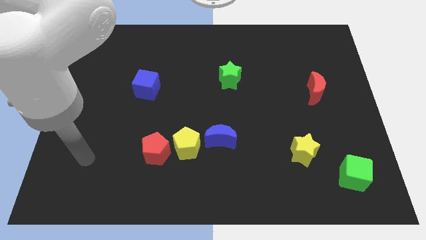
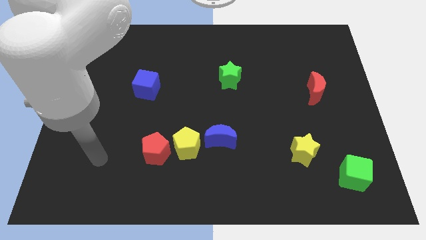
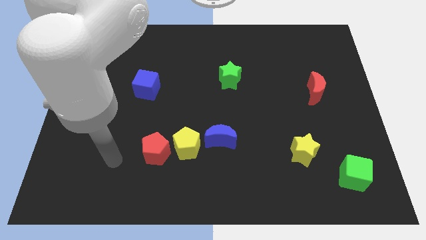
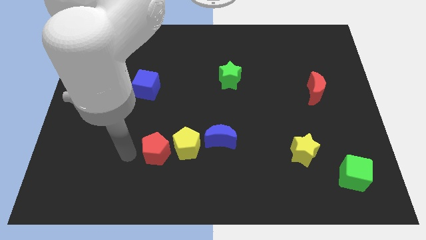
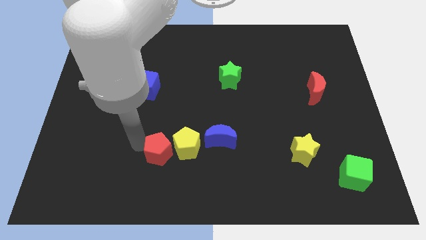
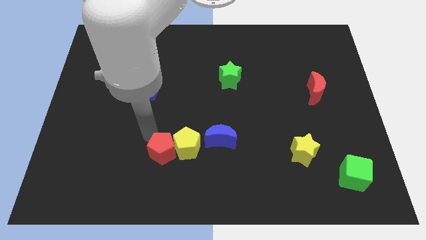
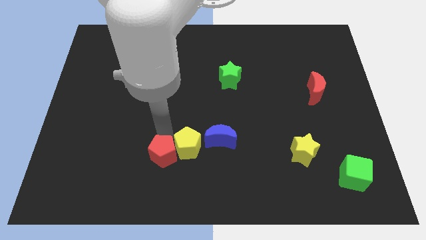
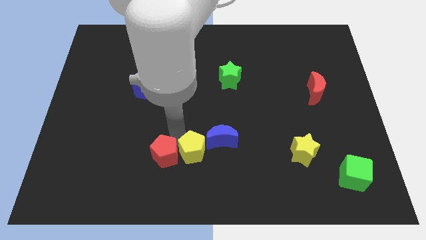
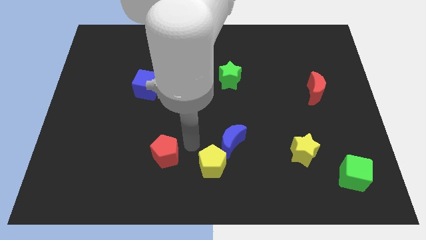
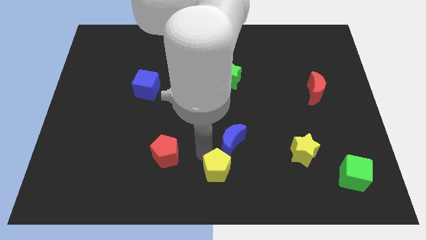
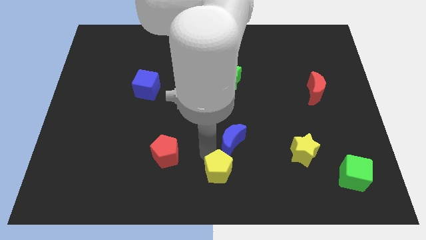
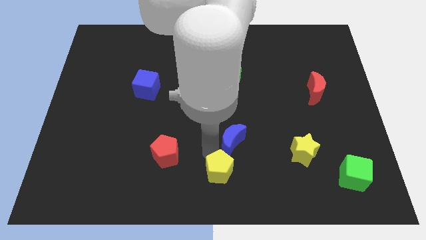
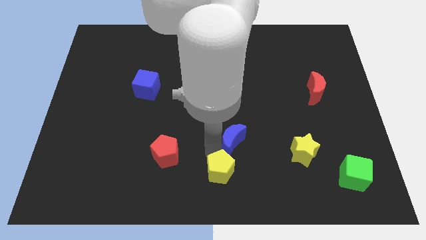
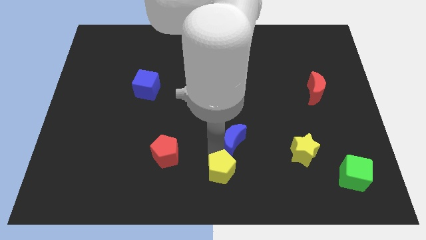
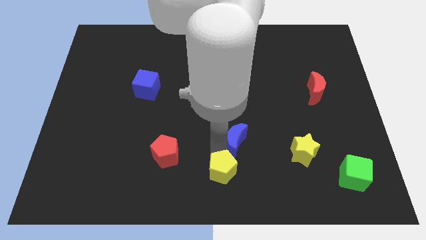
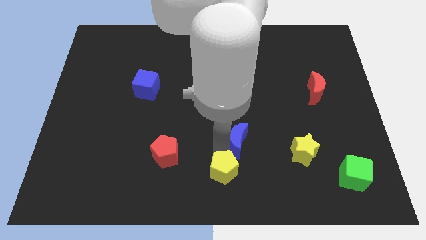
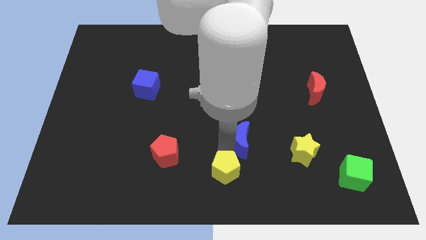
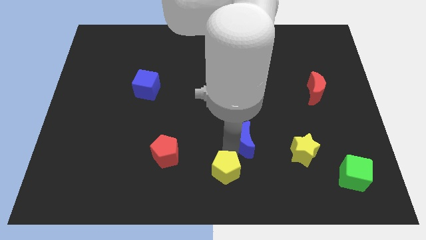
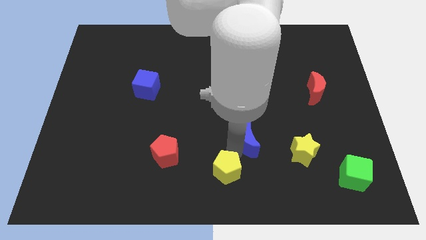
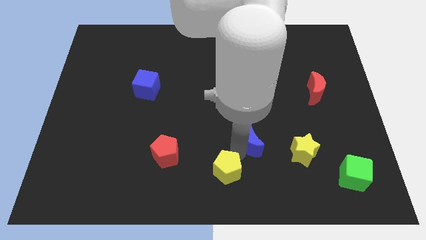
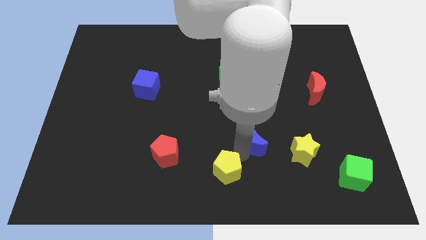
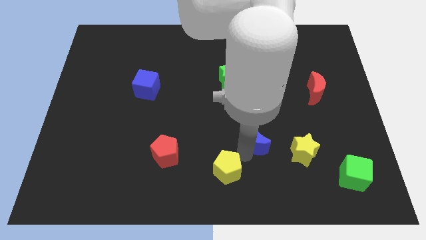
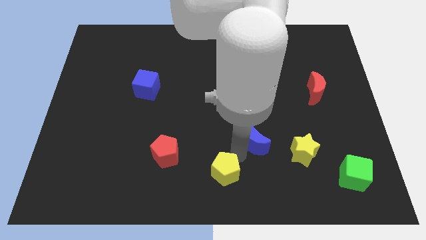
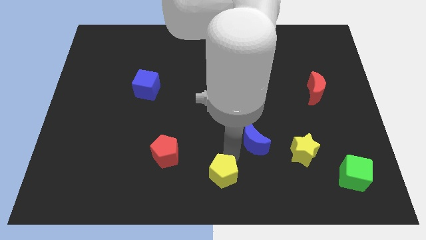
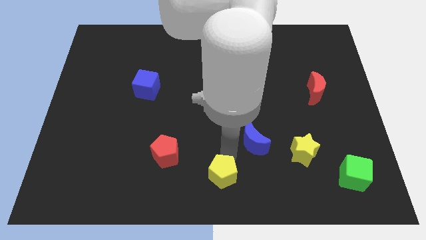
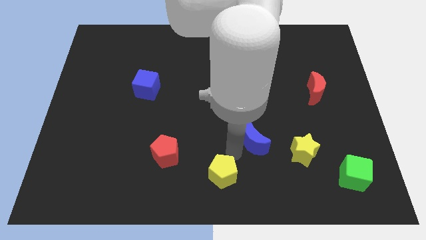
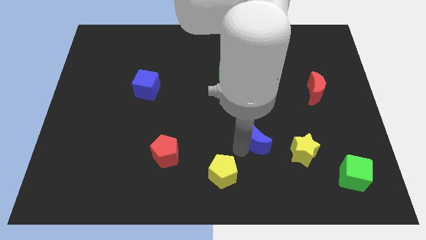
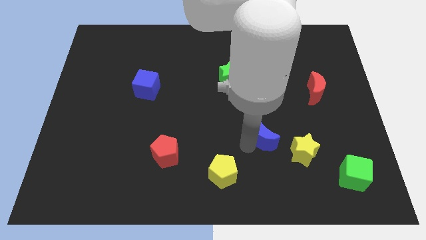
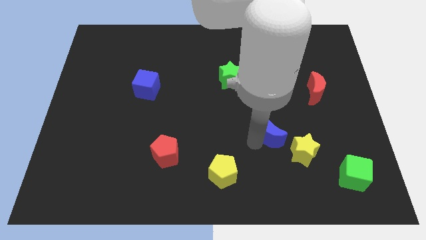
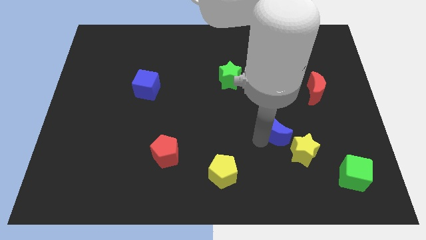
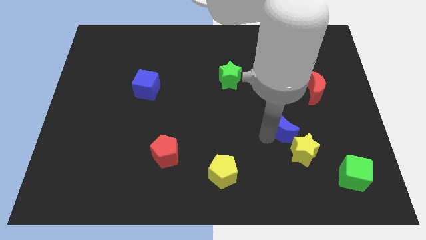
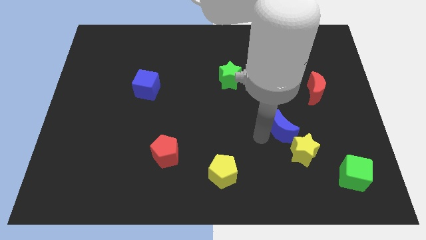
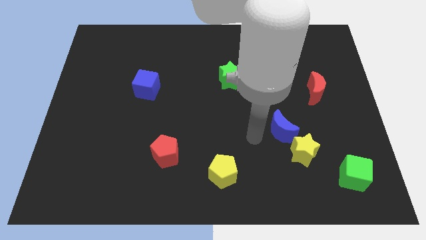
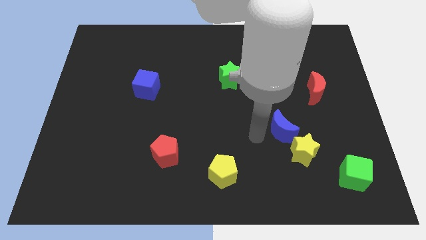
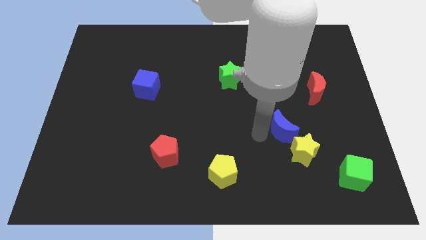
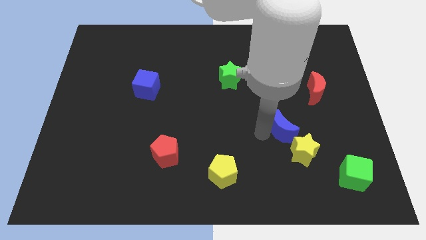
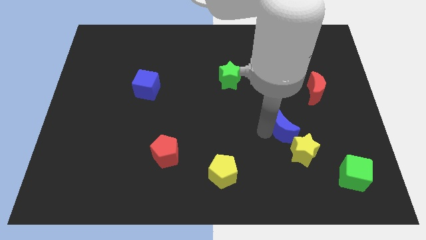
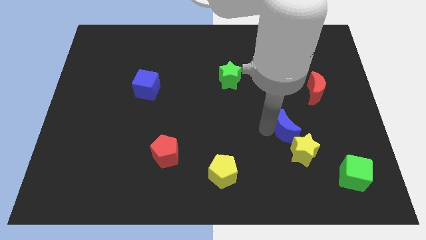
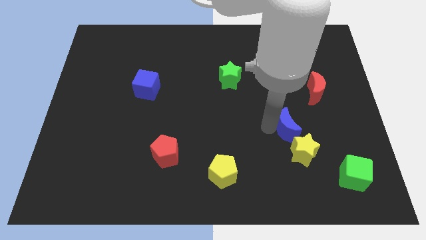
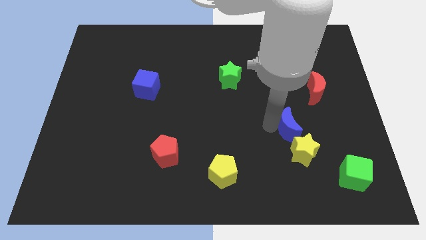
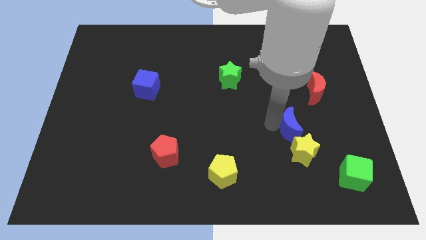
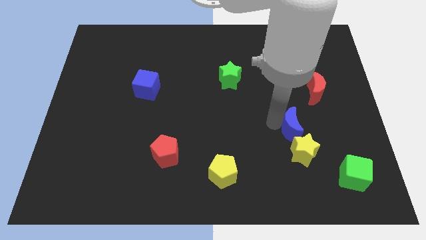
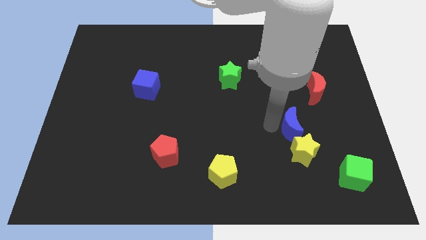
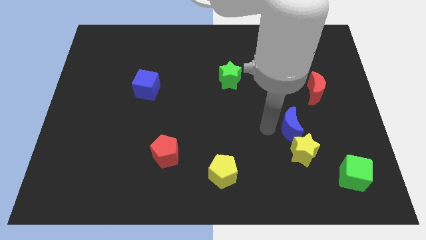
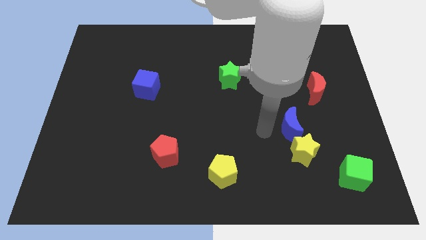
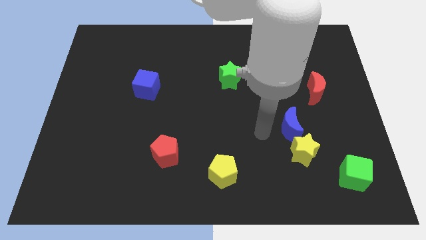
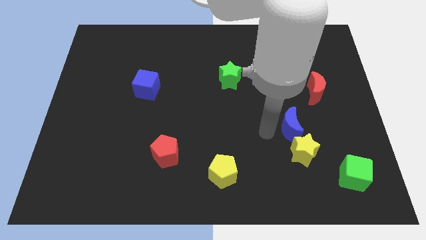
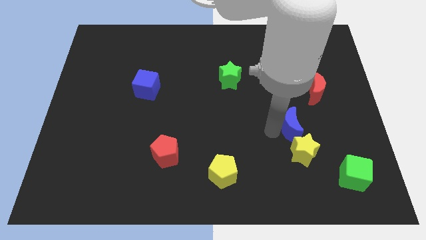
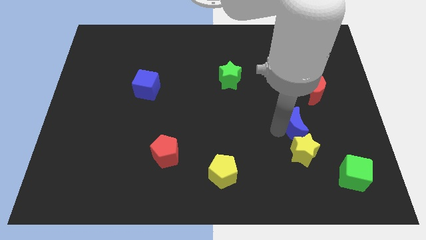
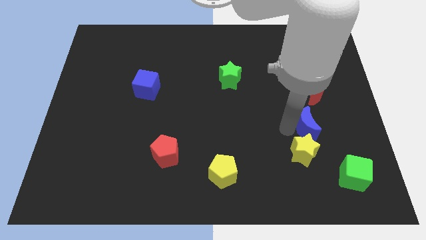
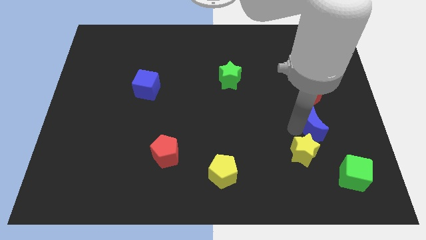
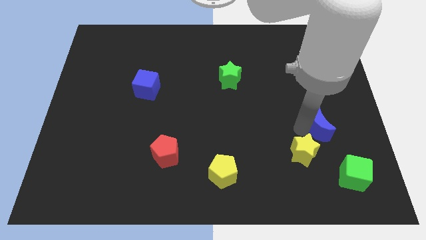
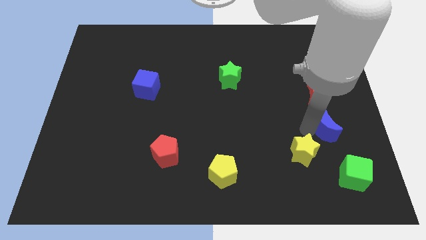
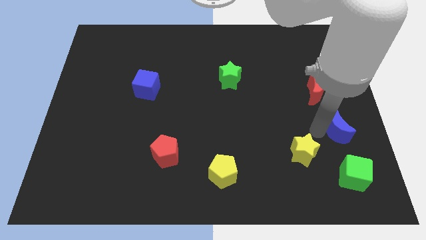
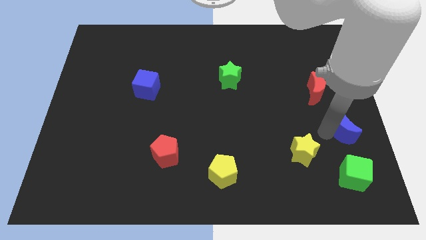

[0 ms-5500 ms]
move the blue moon to the center right

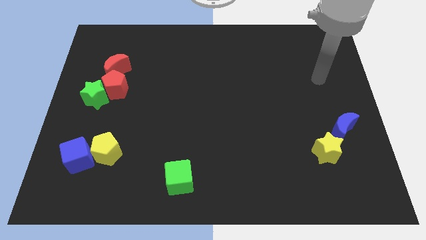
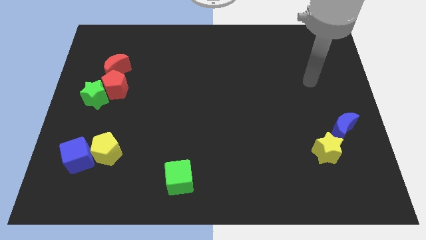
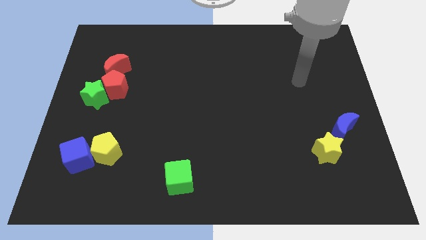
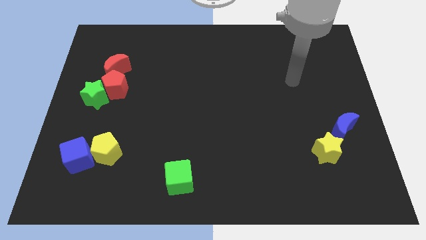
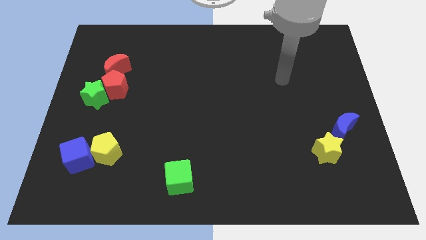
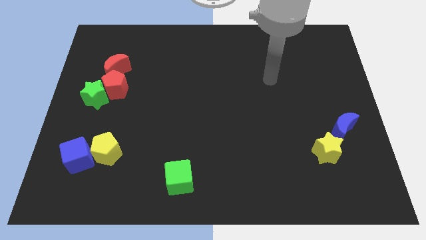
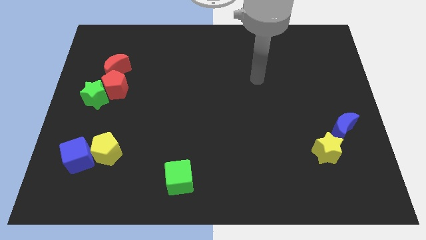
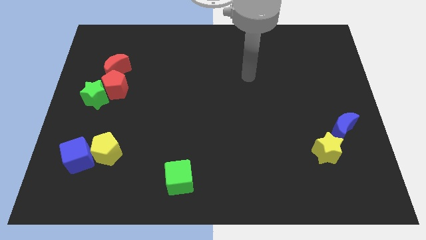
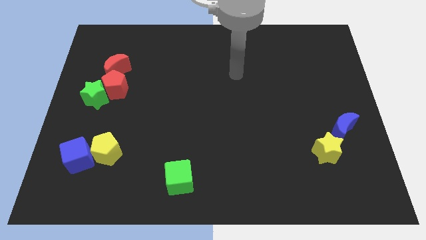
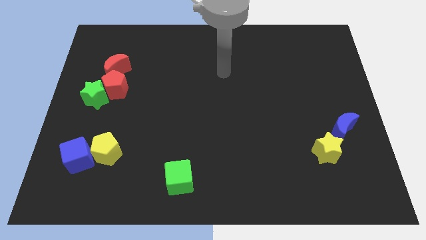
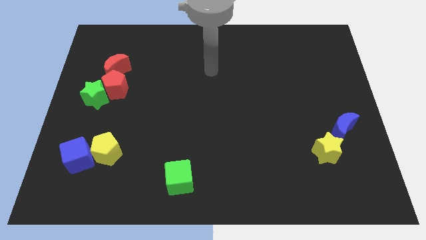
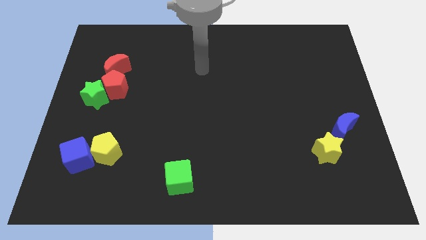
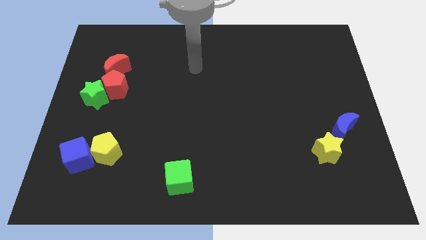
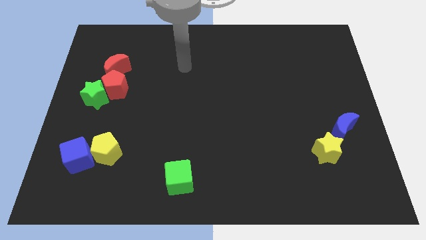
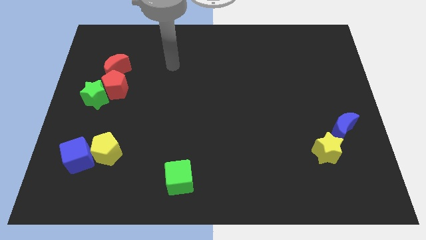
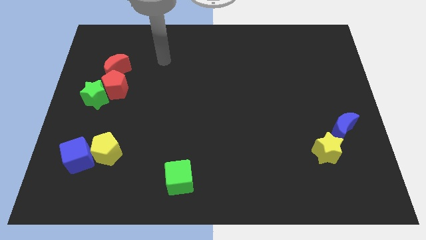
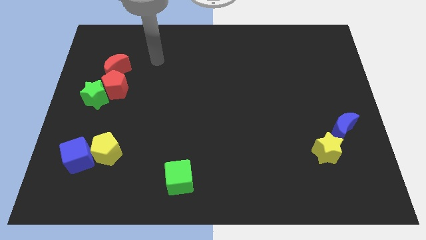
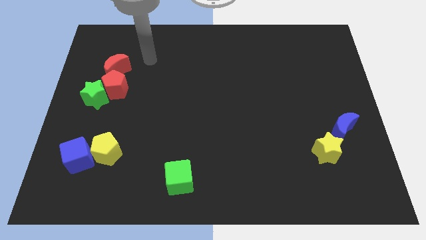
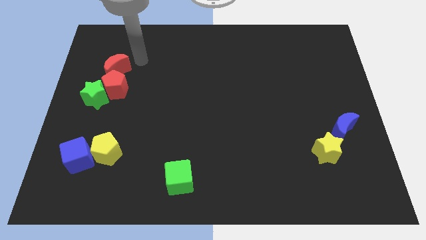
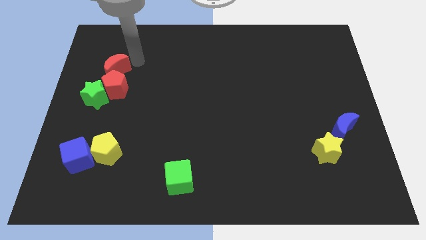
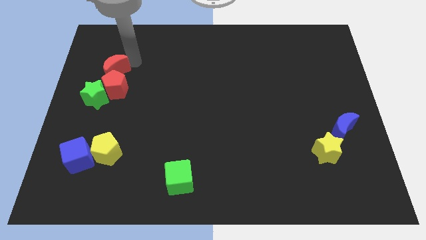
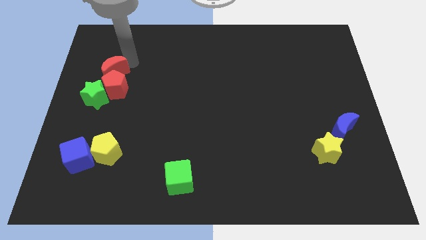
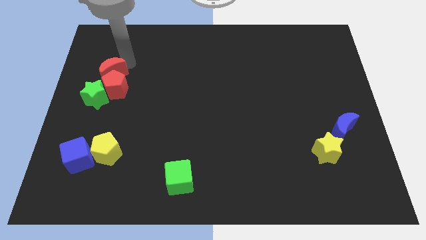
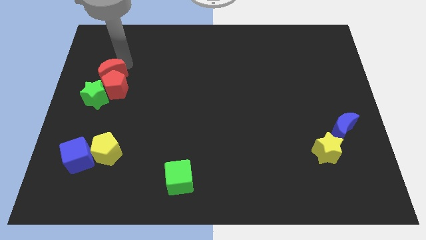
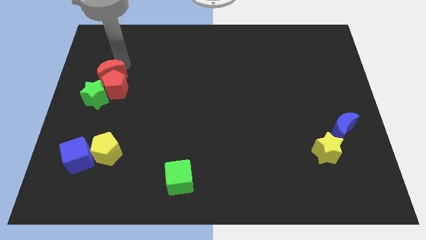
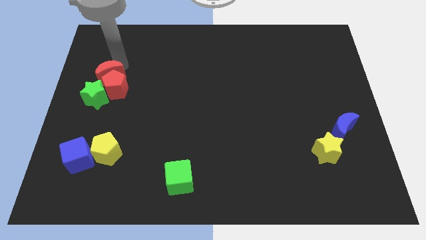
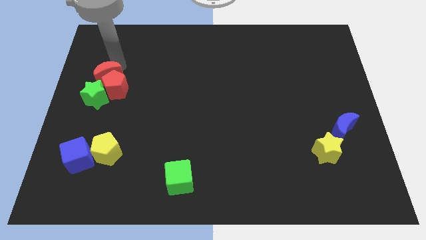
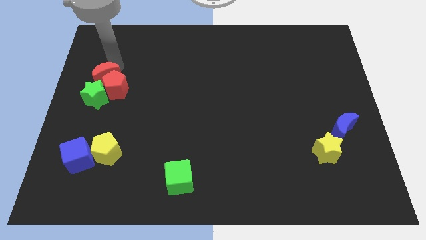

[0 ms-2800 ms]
put the red moon to the left side
